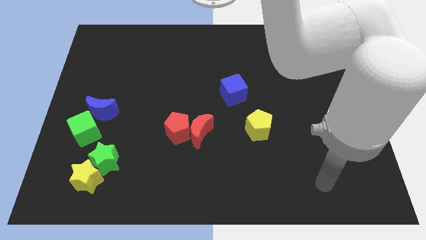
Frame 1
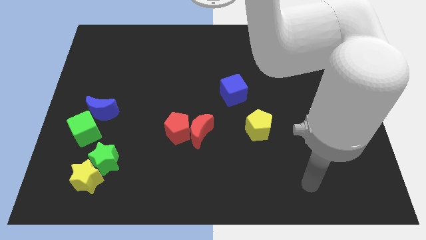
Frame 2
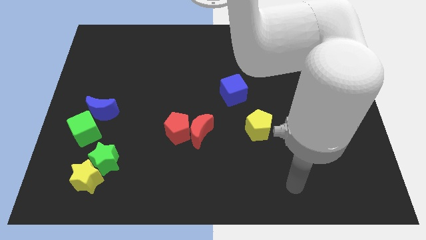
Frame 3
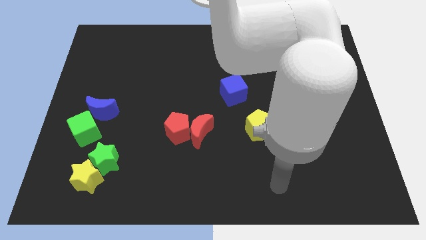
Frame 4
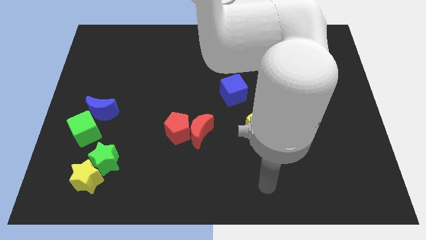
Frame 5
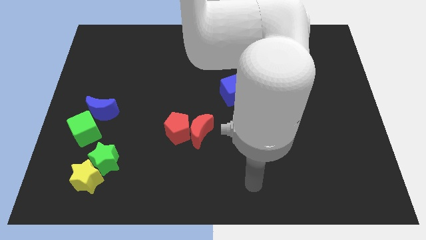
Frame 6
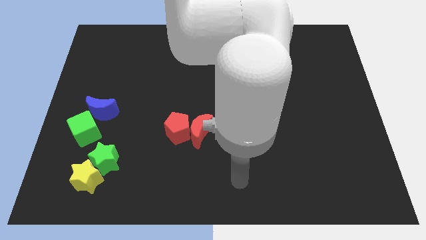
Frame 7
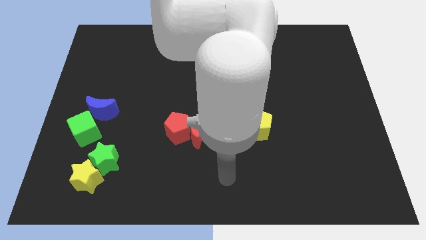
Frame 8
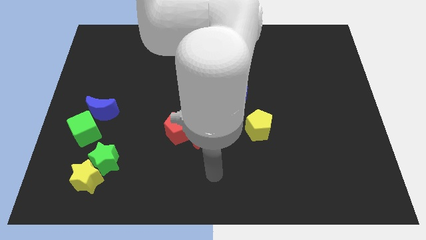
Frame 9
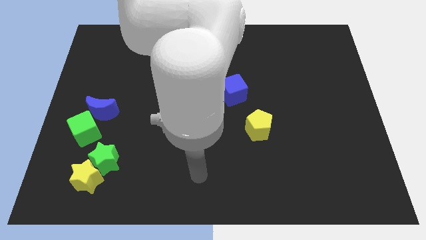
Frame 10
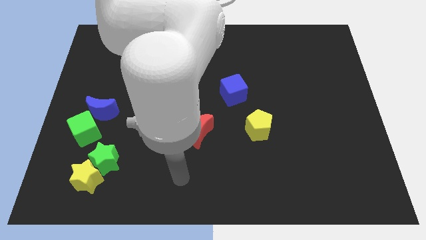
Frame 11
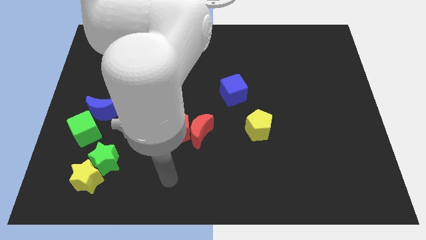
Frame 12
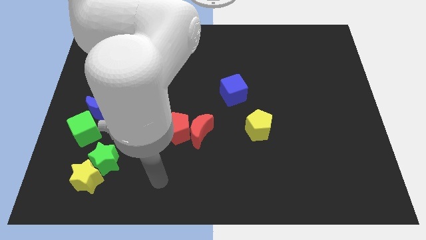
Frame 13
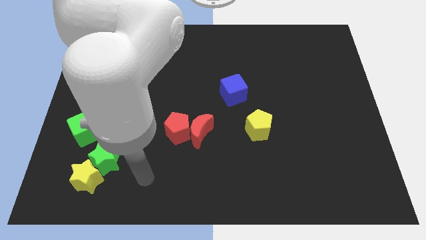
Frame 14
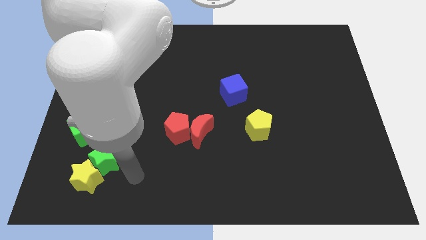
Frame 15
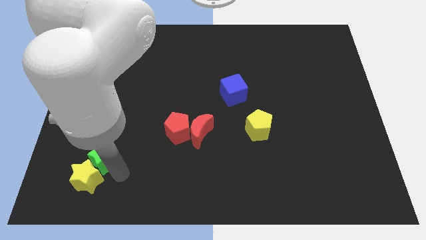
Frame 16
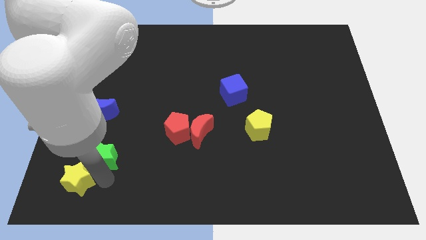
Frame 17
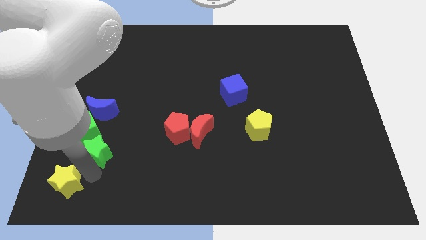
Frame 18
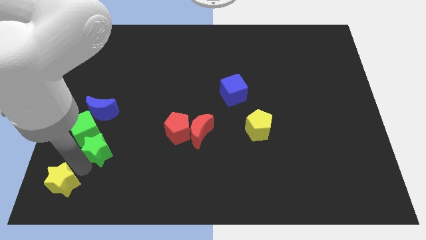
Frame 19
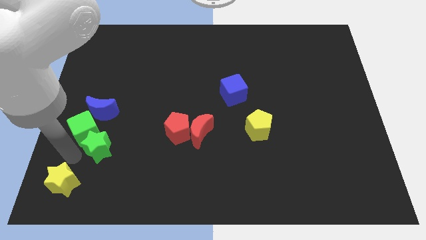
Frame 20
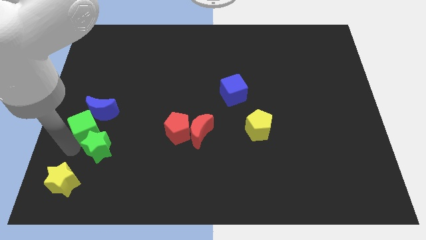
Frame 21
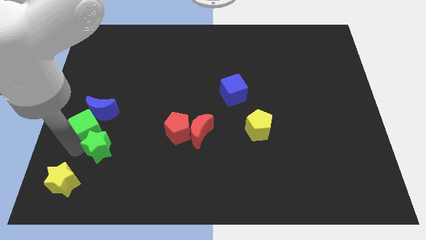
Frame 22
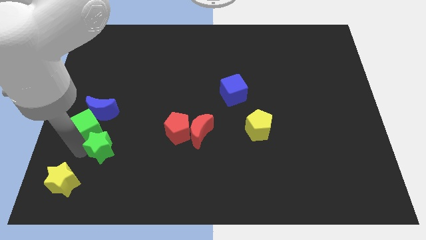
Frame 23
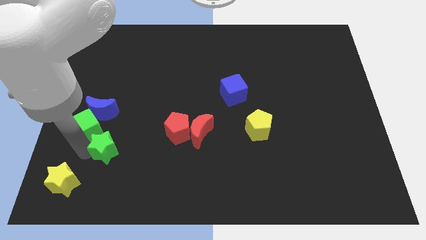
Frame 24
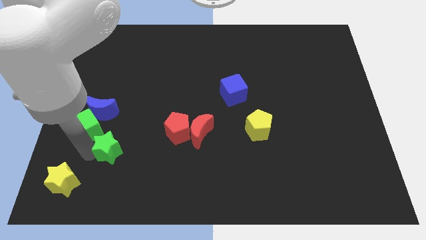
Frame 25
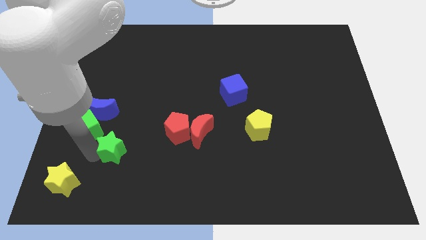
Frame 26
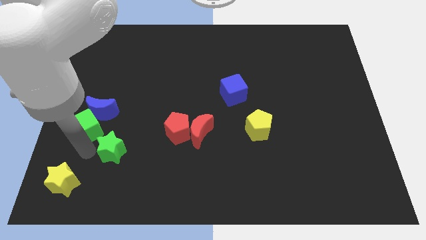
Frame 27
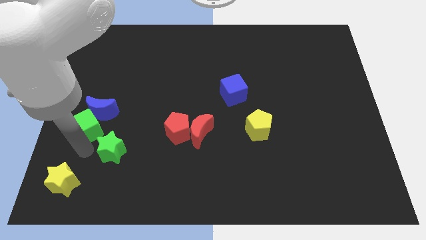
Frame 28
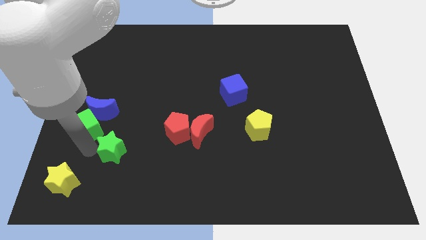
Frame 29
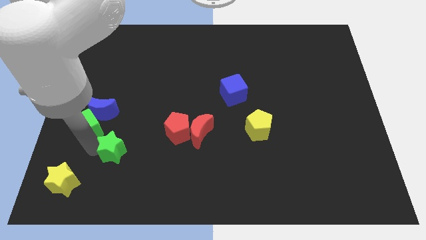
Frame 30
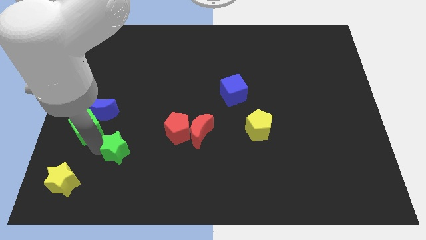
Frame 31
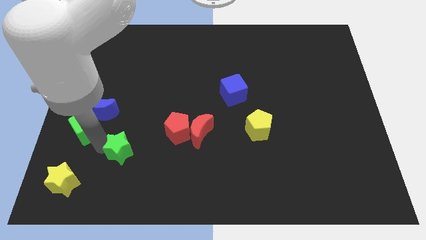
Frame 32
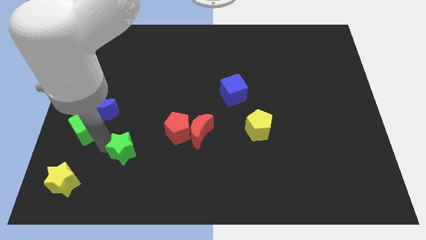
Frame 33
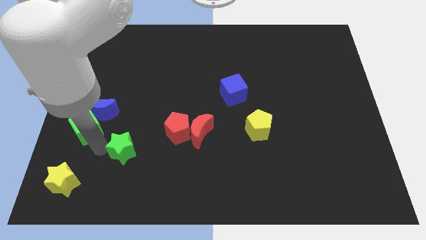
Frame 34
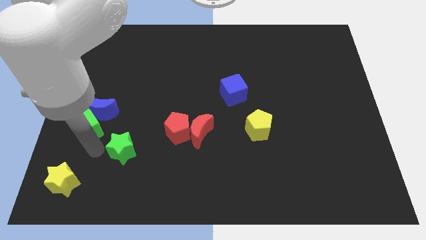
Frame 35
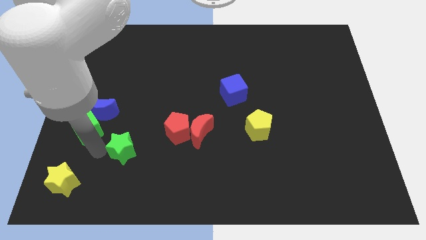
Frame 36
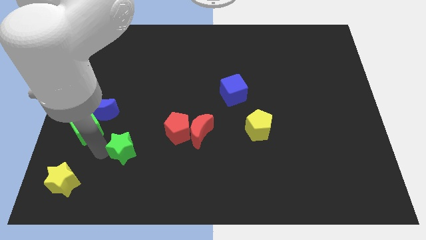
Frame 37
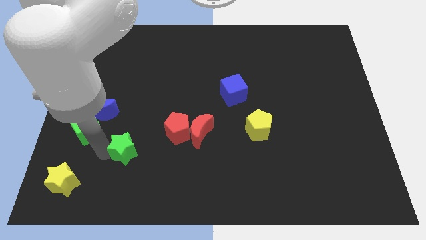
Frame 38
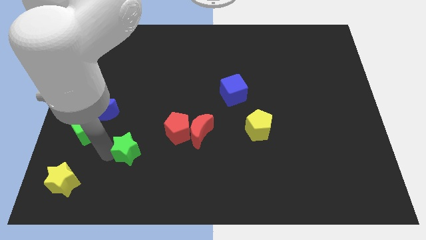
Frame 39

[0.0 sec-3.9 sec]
move the green star to the bottom left of the red pentagon

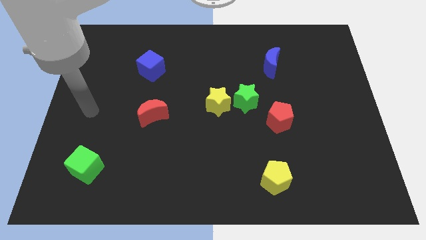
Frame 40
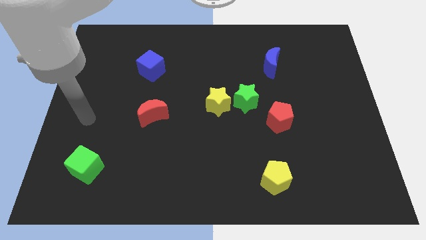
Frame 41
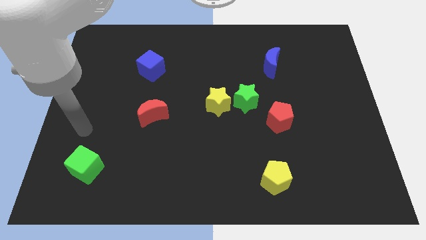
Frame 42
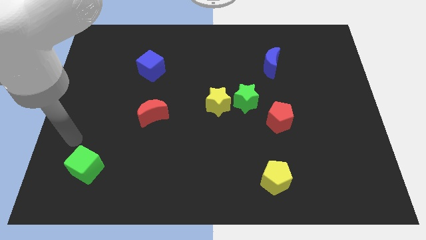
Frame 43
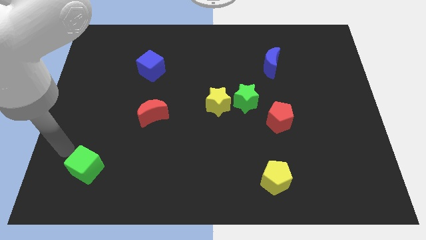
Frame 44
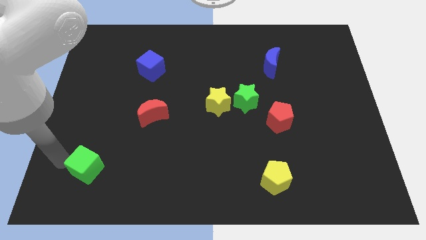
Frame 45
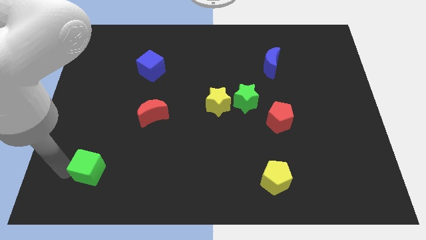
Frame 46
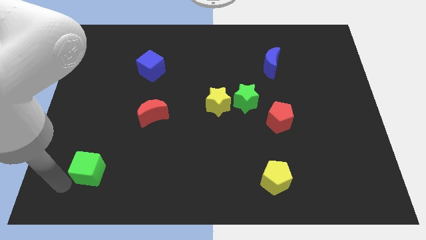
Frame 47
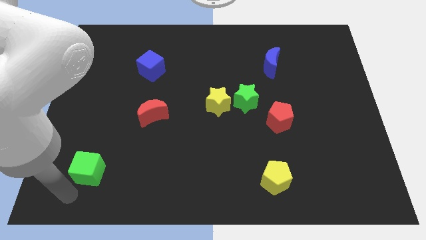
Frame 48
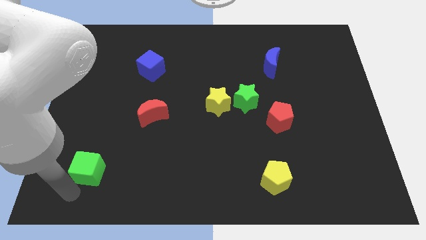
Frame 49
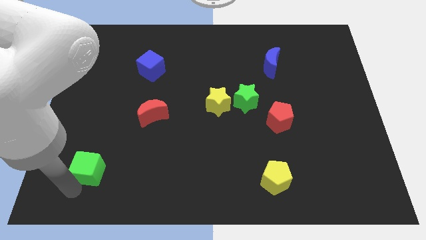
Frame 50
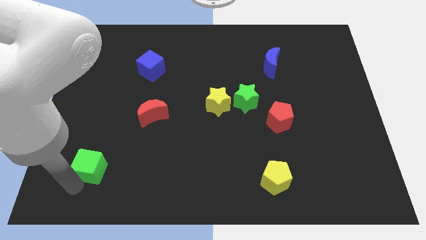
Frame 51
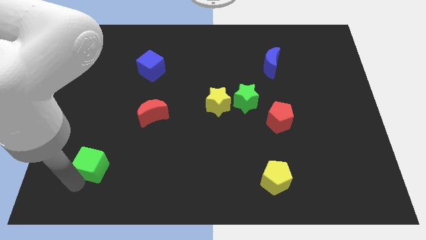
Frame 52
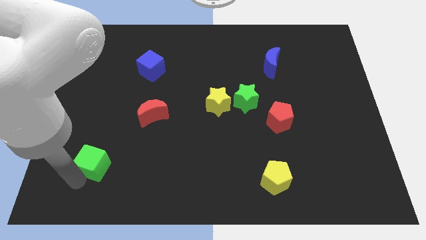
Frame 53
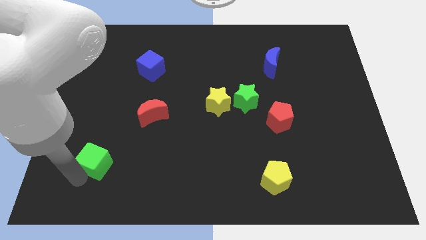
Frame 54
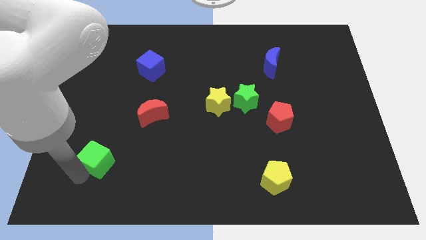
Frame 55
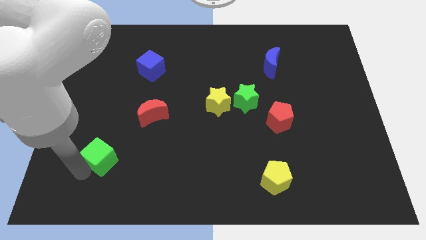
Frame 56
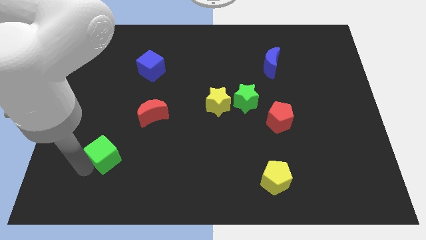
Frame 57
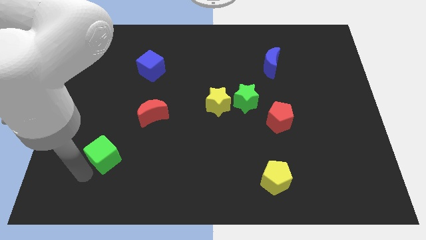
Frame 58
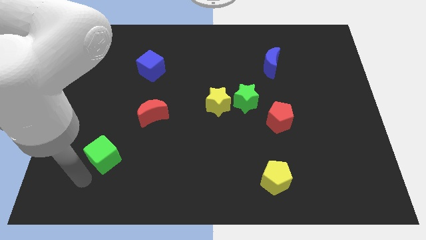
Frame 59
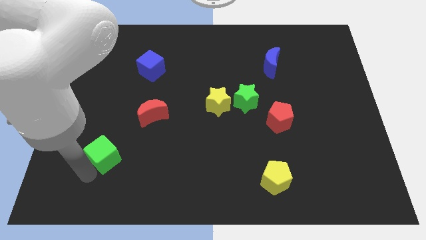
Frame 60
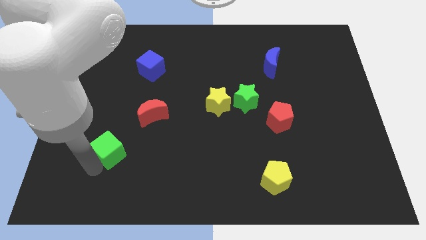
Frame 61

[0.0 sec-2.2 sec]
put the green cube to the bottom left of the red moon

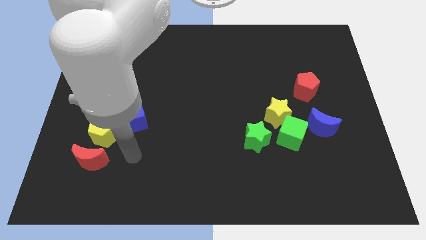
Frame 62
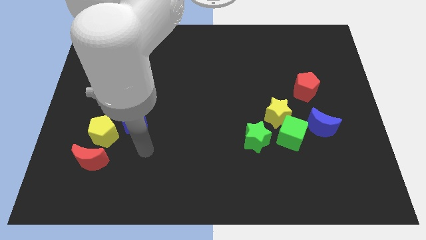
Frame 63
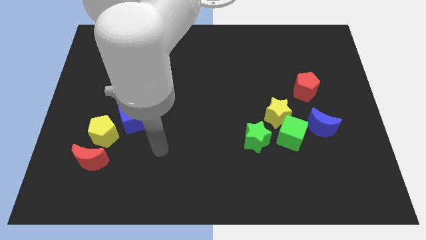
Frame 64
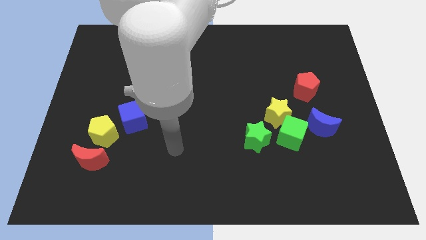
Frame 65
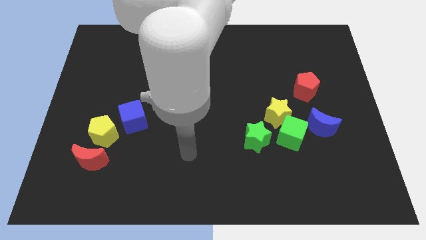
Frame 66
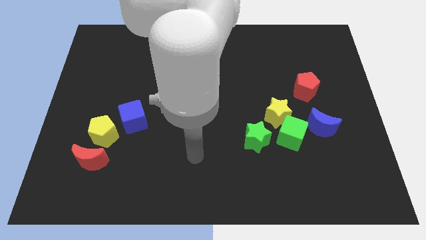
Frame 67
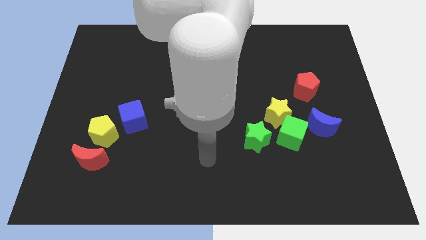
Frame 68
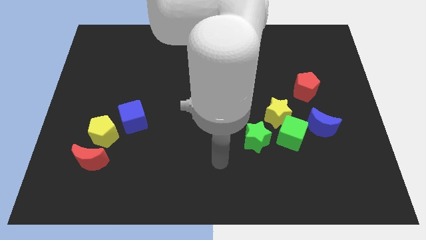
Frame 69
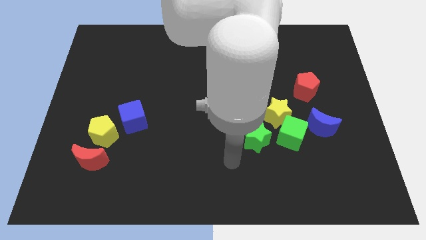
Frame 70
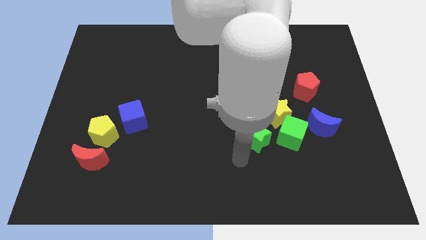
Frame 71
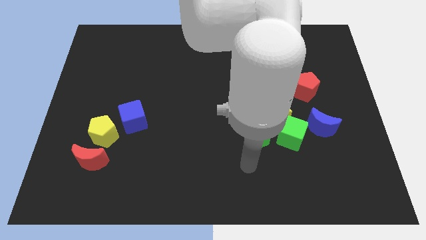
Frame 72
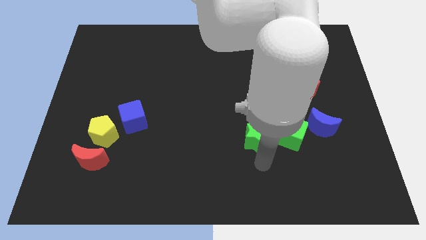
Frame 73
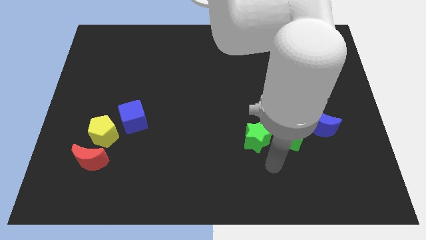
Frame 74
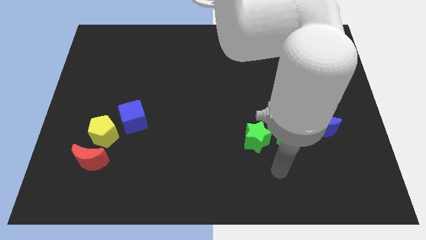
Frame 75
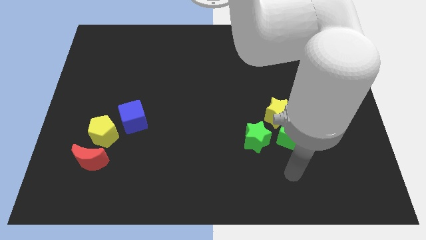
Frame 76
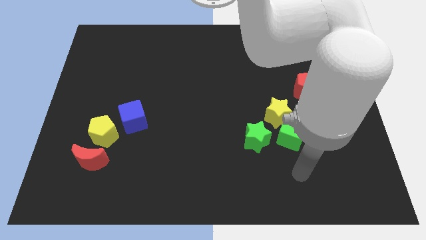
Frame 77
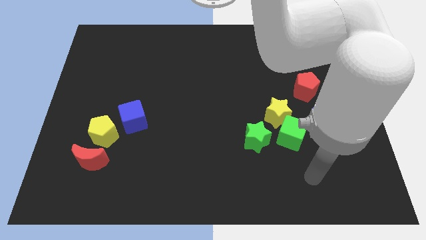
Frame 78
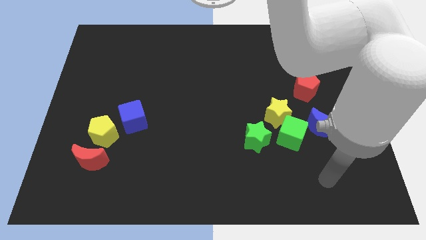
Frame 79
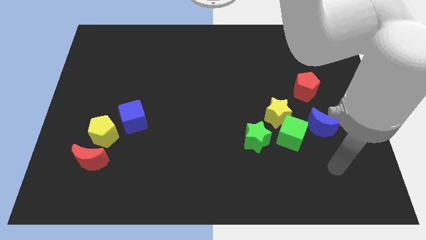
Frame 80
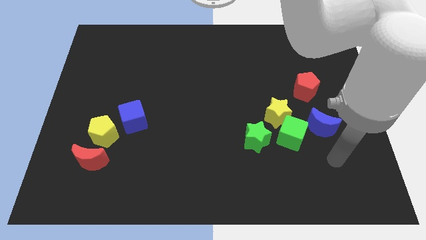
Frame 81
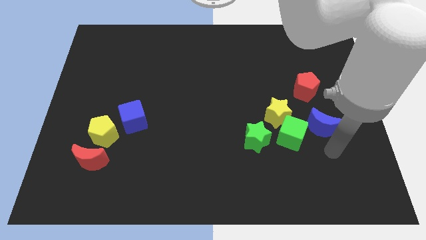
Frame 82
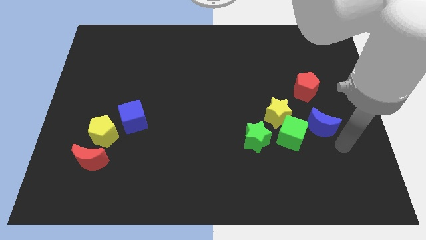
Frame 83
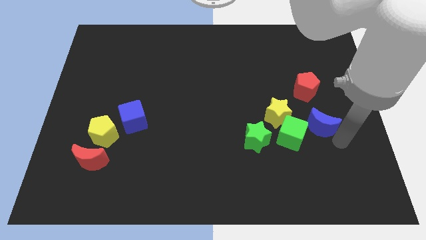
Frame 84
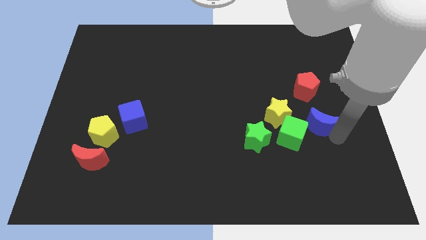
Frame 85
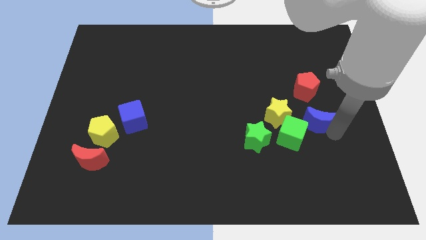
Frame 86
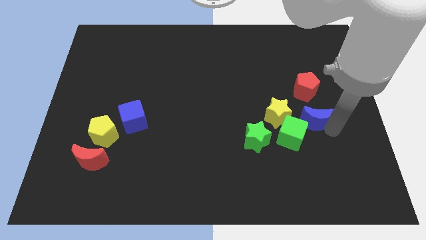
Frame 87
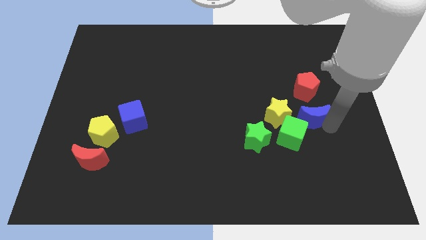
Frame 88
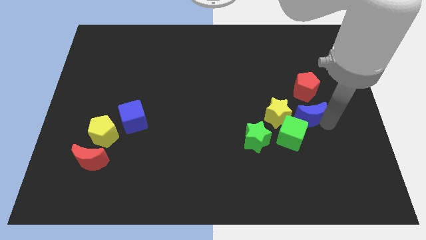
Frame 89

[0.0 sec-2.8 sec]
put the blue moon to the top side of the green cube
